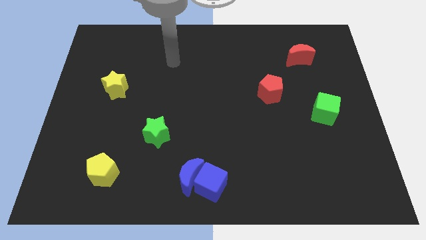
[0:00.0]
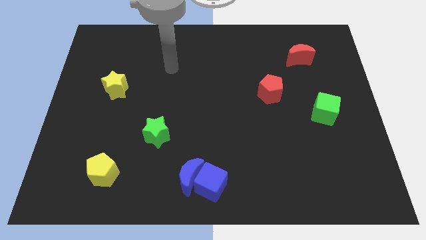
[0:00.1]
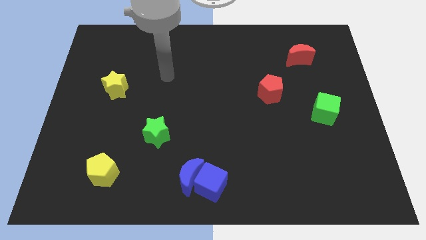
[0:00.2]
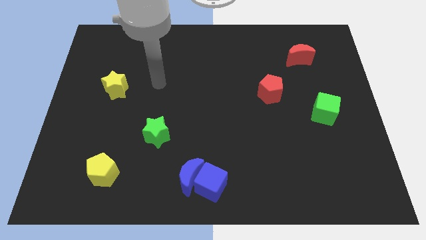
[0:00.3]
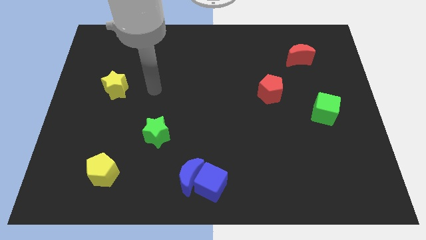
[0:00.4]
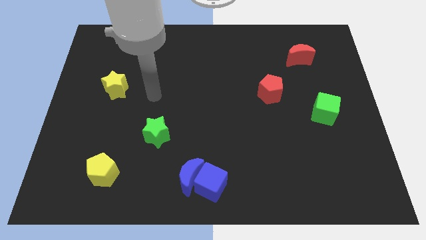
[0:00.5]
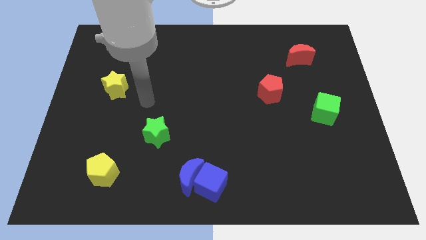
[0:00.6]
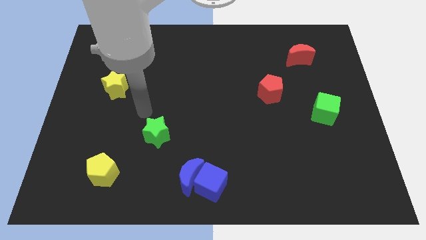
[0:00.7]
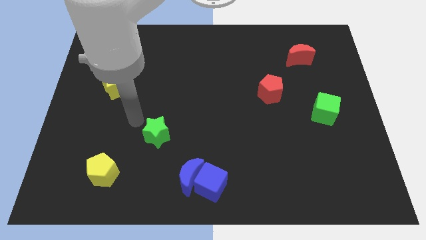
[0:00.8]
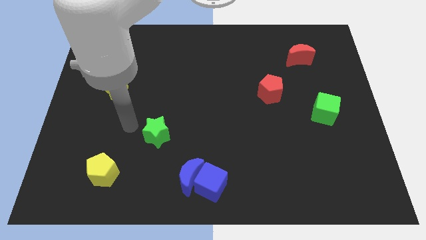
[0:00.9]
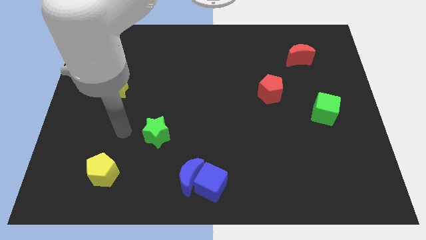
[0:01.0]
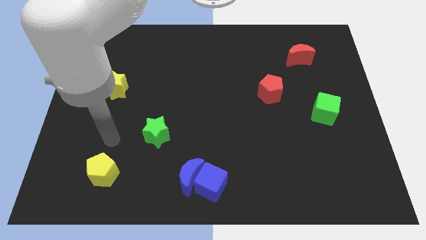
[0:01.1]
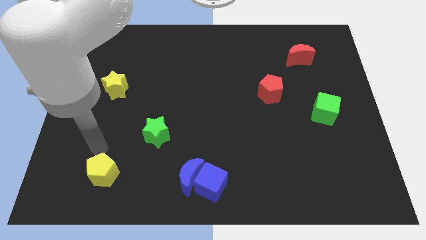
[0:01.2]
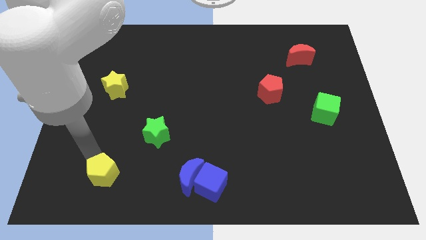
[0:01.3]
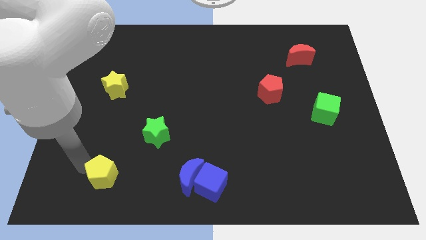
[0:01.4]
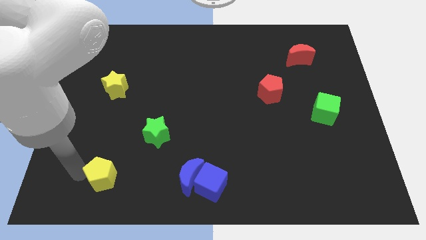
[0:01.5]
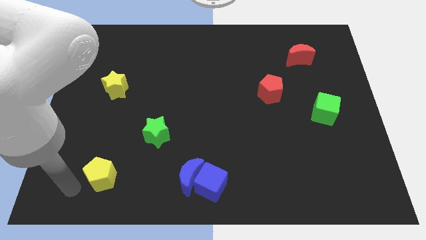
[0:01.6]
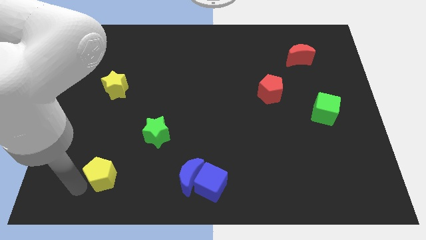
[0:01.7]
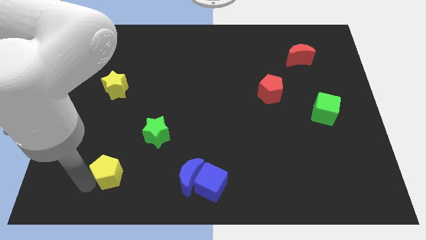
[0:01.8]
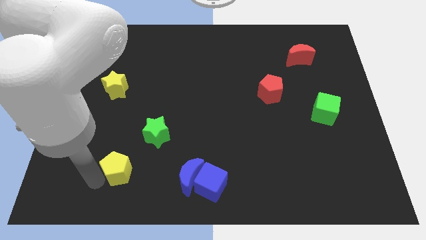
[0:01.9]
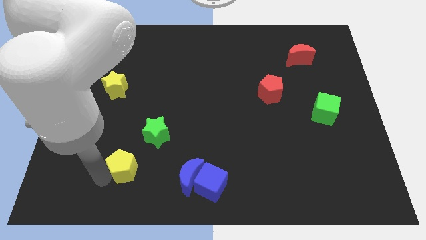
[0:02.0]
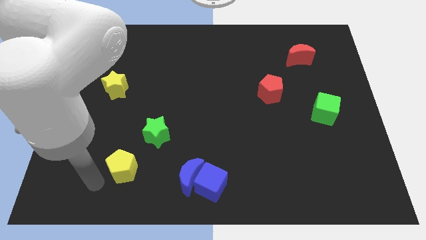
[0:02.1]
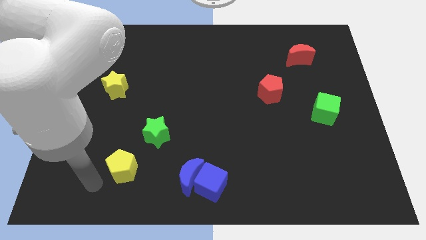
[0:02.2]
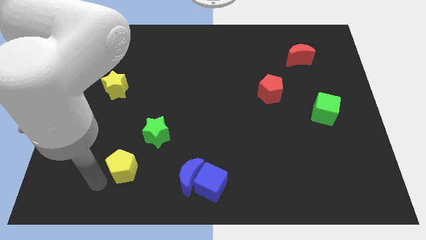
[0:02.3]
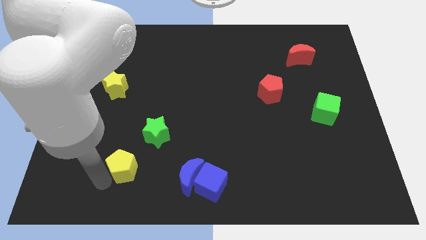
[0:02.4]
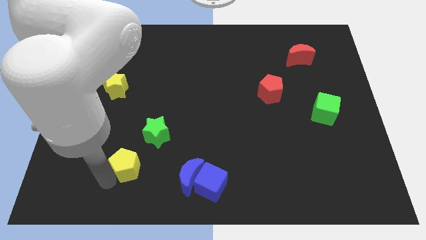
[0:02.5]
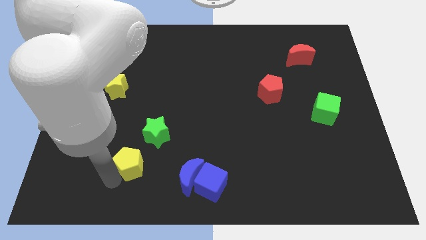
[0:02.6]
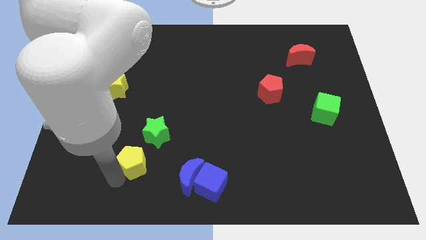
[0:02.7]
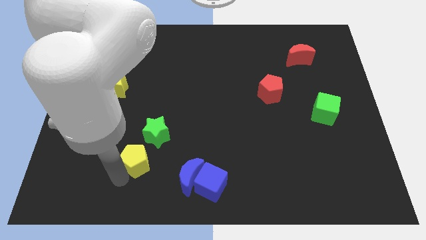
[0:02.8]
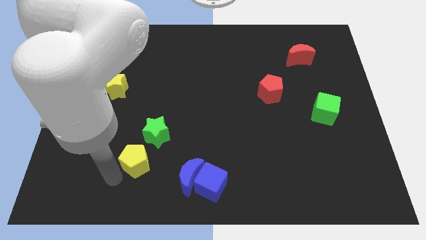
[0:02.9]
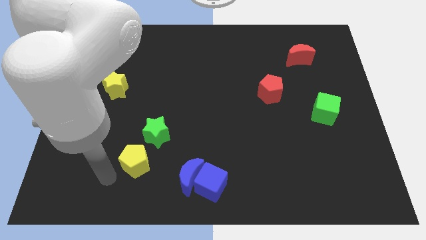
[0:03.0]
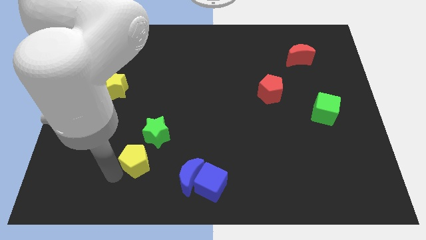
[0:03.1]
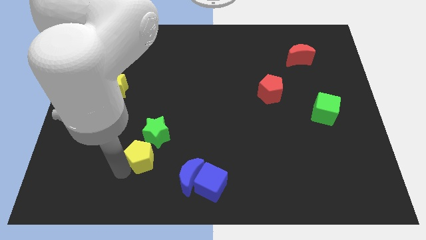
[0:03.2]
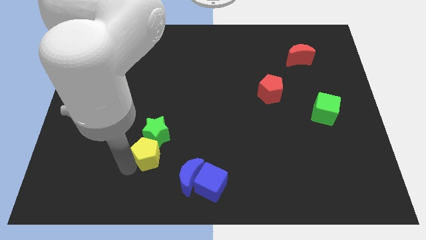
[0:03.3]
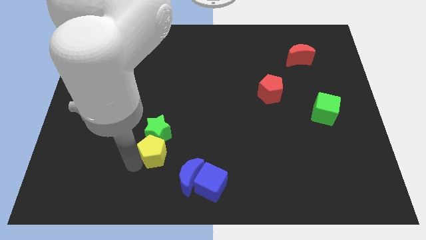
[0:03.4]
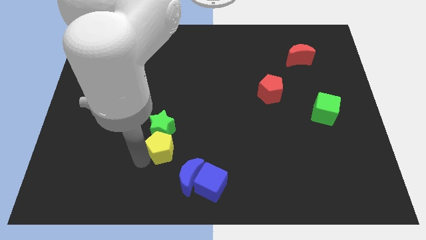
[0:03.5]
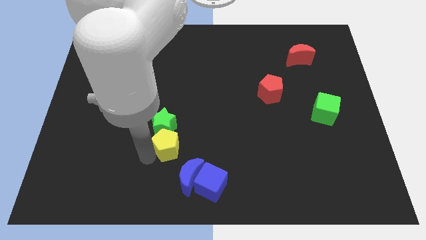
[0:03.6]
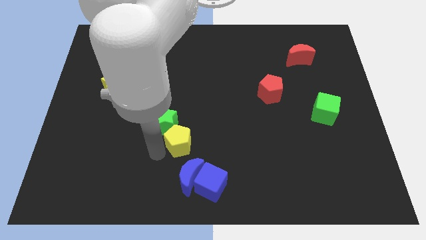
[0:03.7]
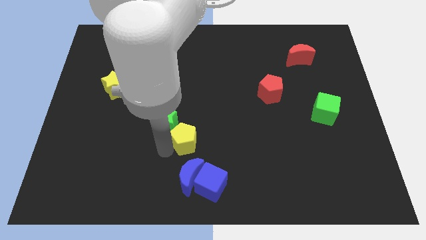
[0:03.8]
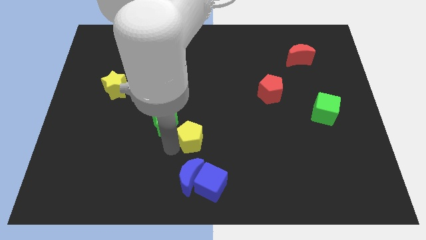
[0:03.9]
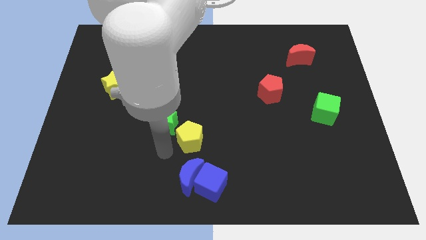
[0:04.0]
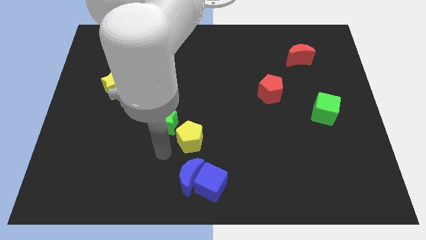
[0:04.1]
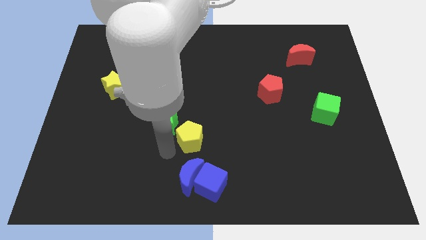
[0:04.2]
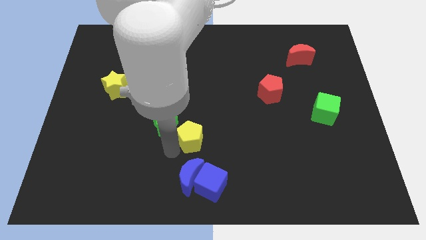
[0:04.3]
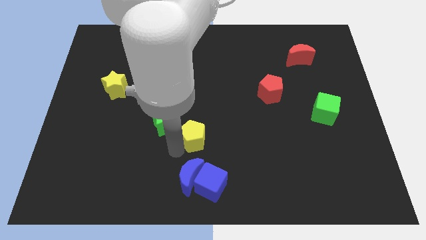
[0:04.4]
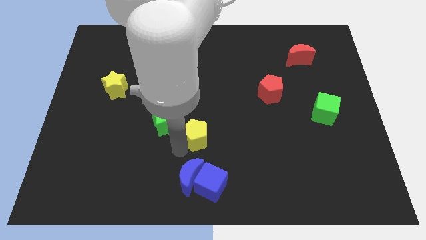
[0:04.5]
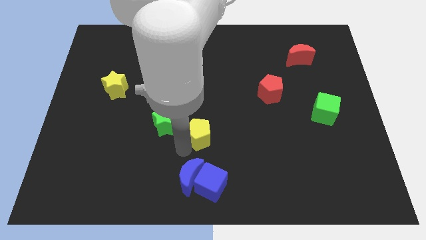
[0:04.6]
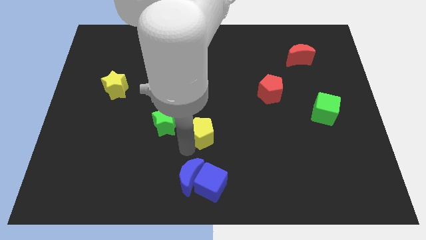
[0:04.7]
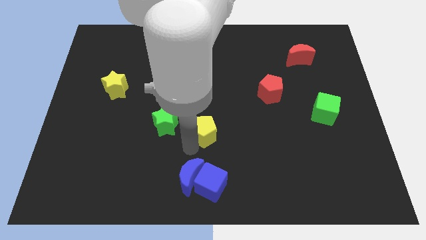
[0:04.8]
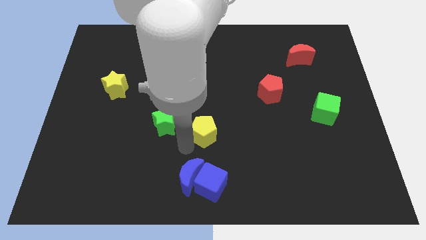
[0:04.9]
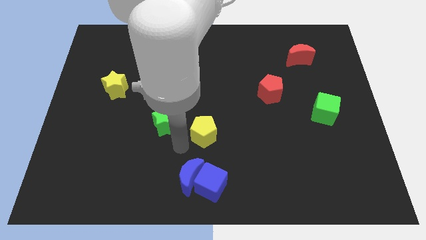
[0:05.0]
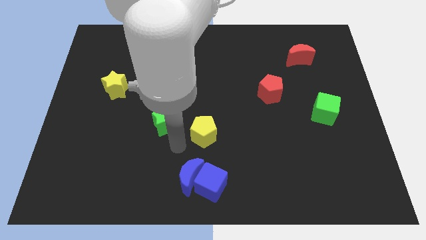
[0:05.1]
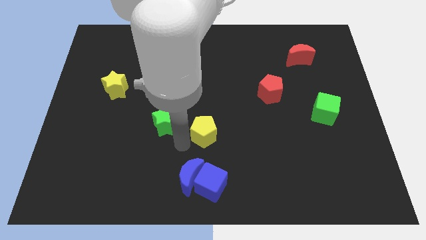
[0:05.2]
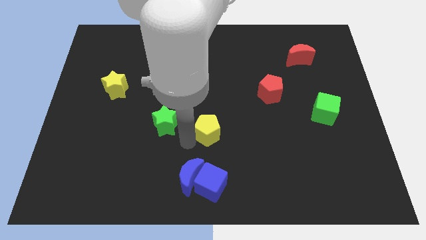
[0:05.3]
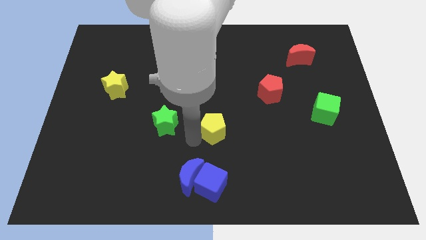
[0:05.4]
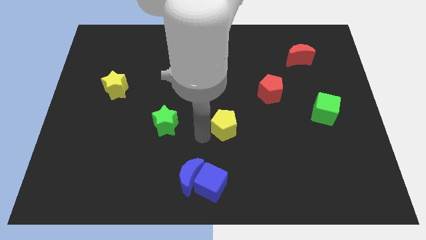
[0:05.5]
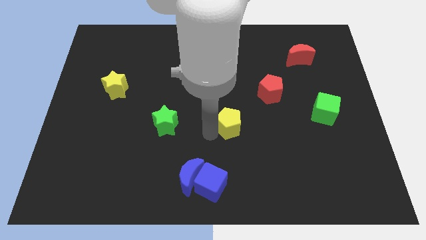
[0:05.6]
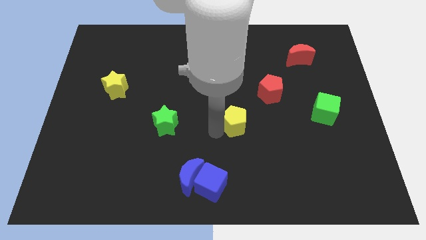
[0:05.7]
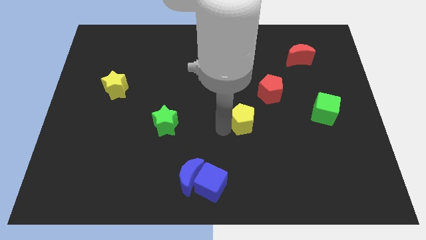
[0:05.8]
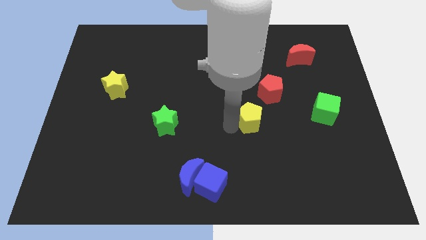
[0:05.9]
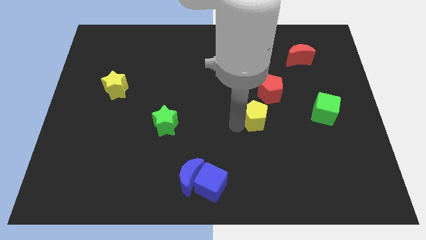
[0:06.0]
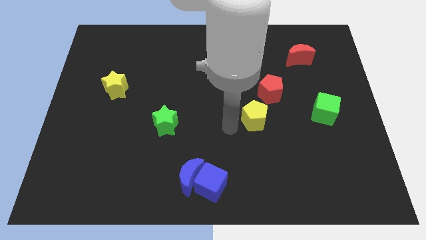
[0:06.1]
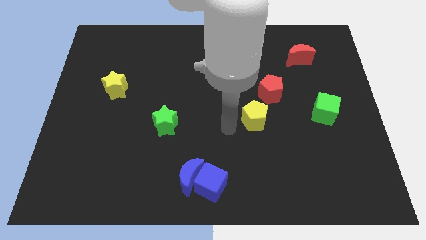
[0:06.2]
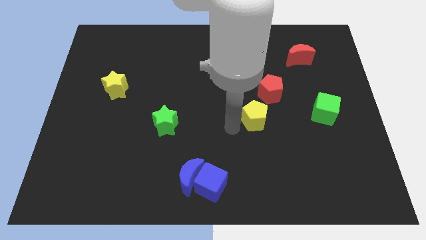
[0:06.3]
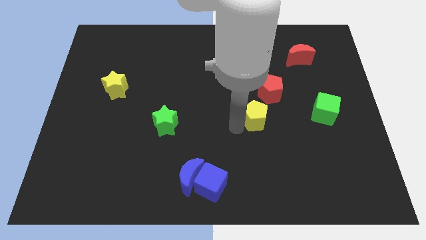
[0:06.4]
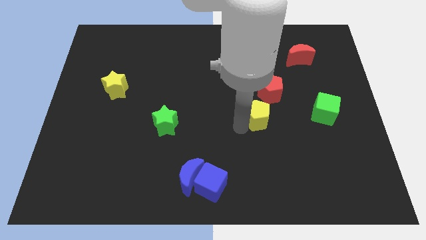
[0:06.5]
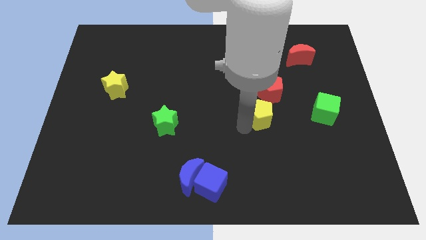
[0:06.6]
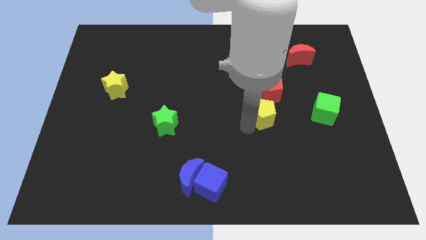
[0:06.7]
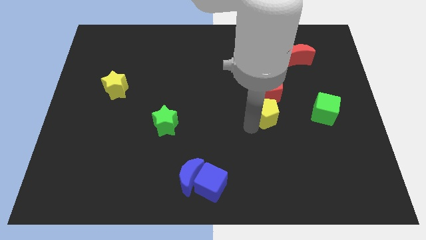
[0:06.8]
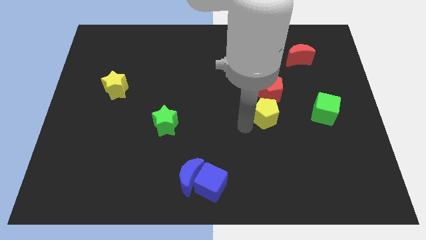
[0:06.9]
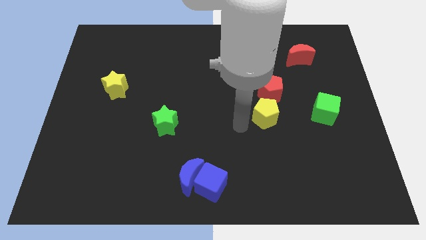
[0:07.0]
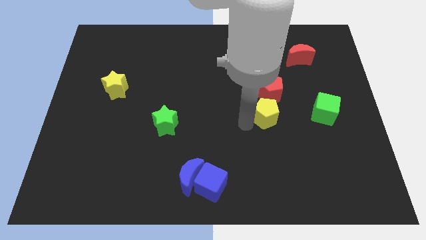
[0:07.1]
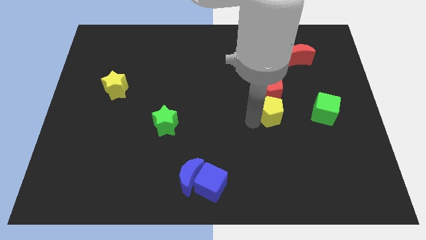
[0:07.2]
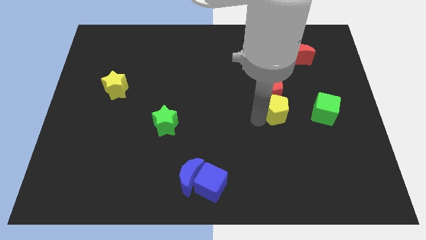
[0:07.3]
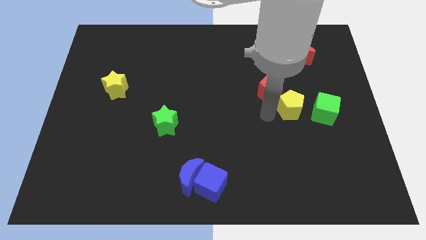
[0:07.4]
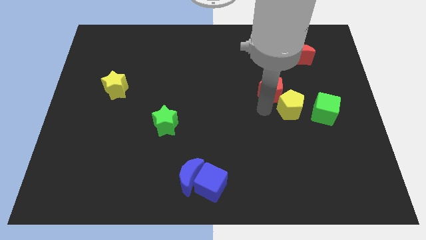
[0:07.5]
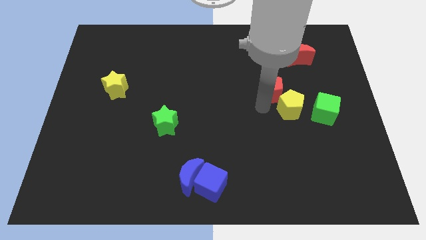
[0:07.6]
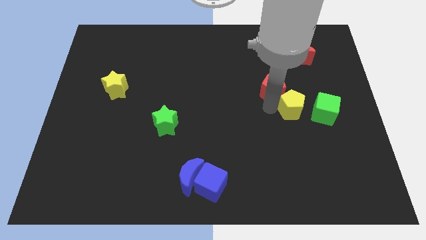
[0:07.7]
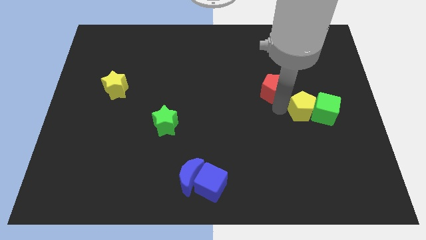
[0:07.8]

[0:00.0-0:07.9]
move the yellow pentagon close to the green cube
